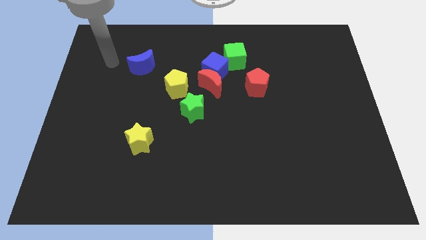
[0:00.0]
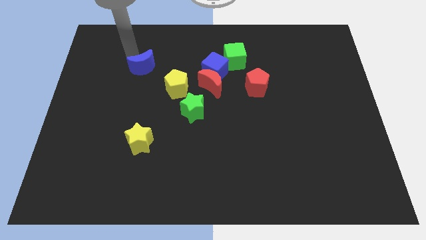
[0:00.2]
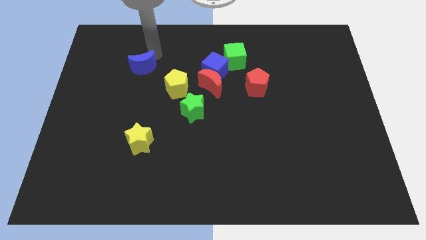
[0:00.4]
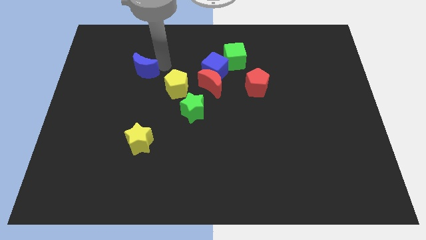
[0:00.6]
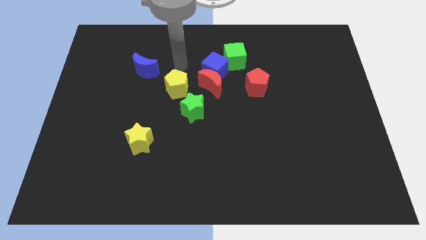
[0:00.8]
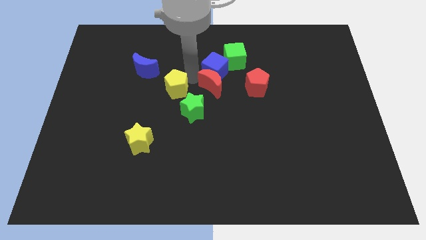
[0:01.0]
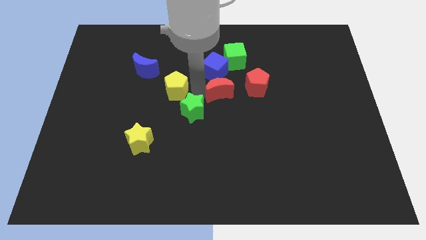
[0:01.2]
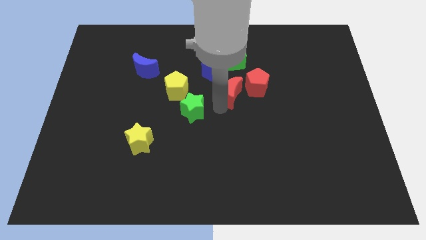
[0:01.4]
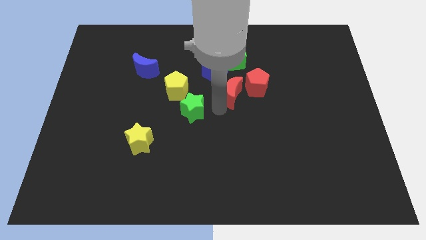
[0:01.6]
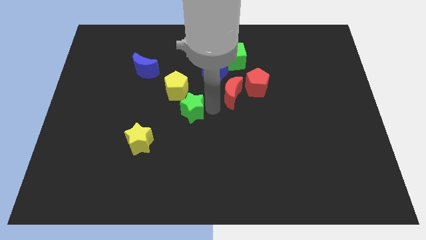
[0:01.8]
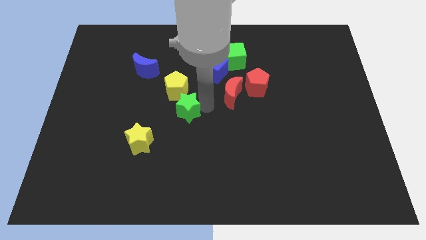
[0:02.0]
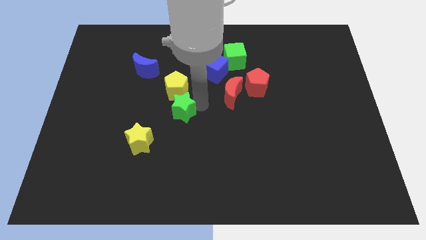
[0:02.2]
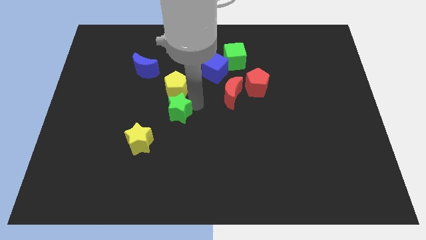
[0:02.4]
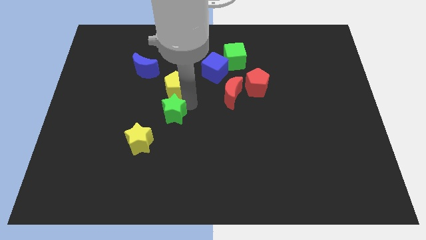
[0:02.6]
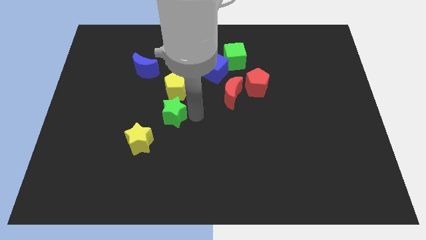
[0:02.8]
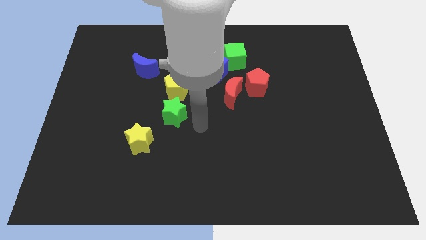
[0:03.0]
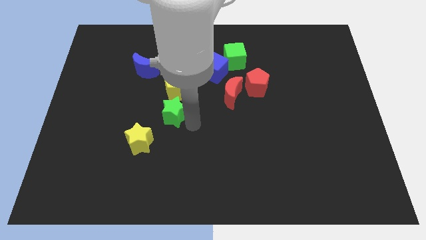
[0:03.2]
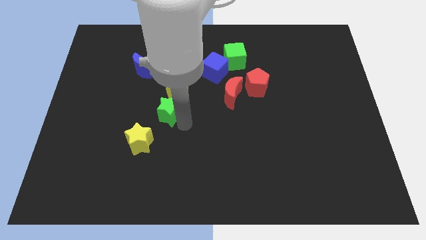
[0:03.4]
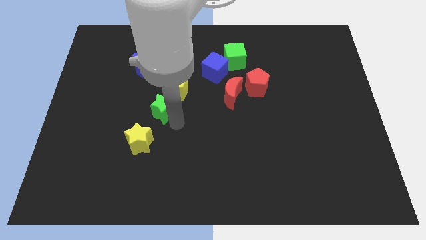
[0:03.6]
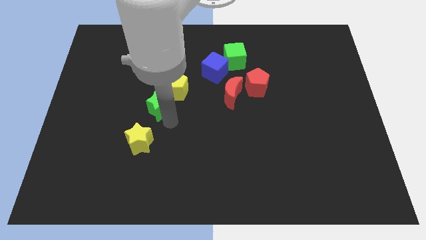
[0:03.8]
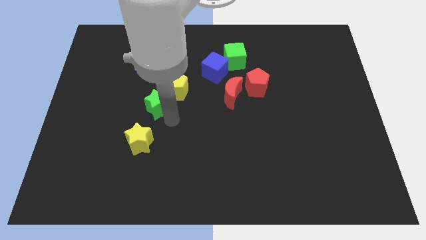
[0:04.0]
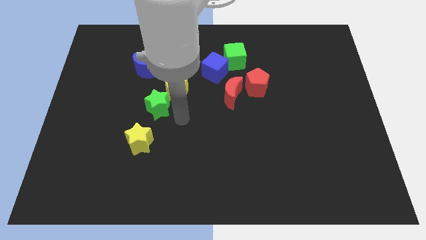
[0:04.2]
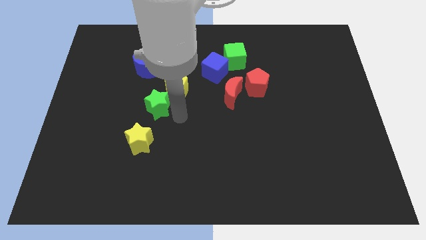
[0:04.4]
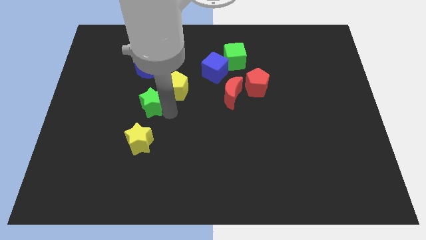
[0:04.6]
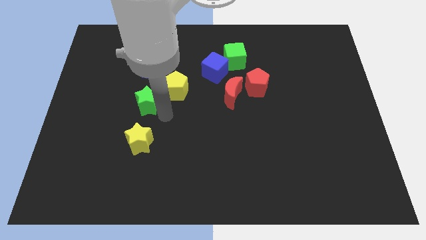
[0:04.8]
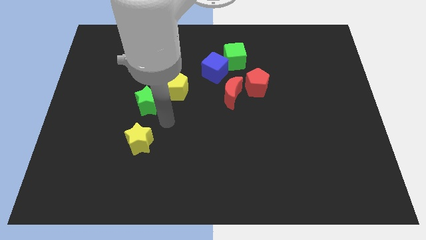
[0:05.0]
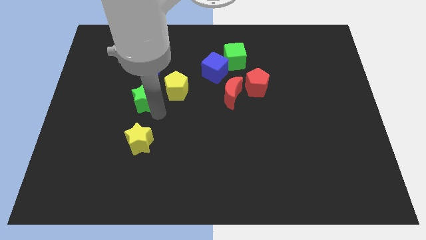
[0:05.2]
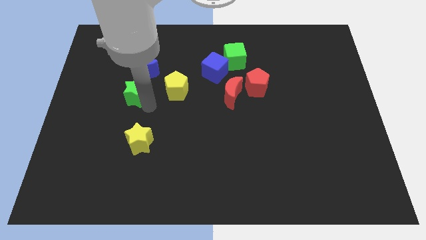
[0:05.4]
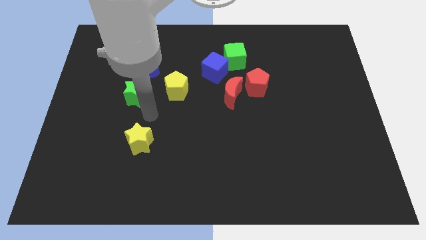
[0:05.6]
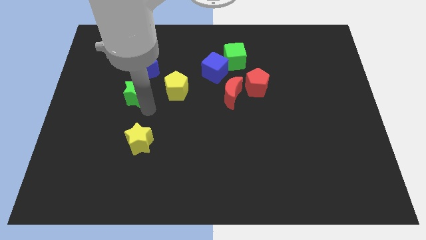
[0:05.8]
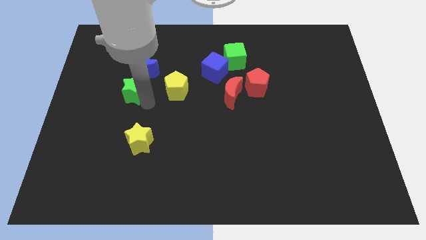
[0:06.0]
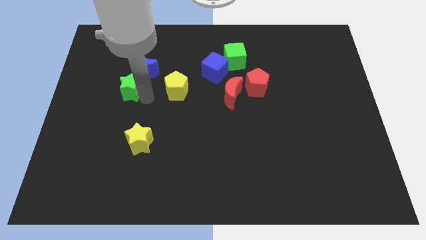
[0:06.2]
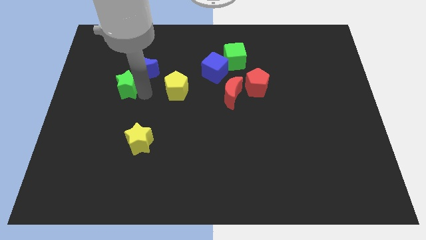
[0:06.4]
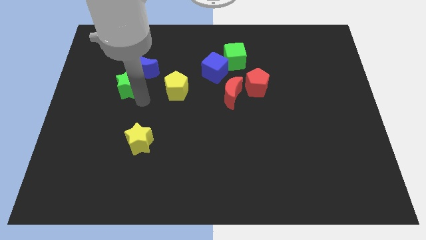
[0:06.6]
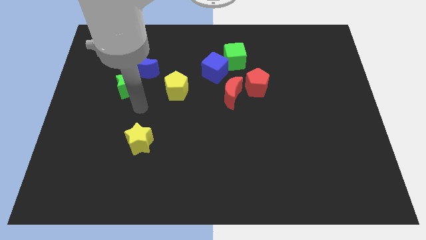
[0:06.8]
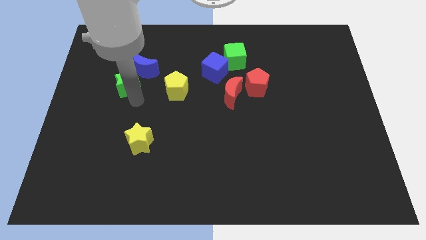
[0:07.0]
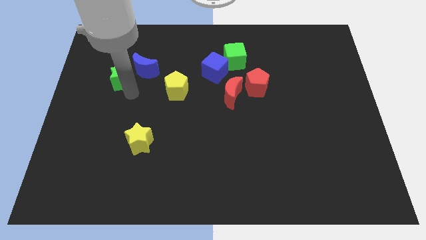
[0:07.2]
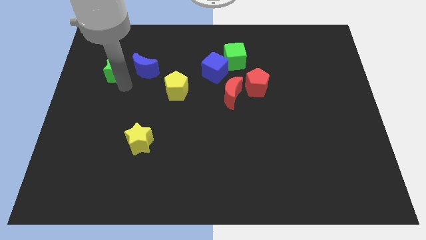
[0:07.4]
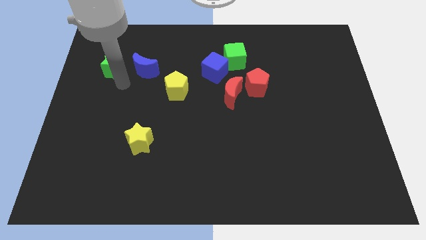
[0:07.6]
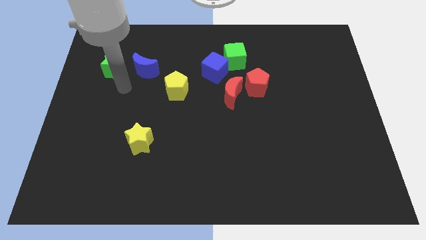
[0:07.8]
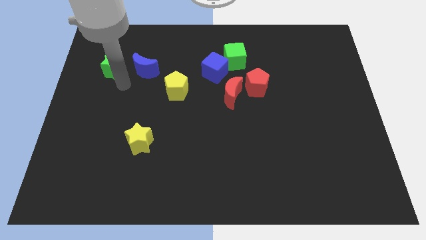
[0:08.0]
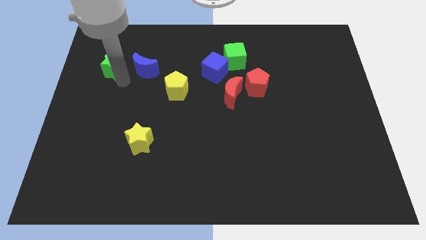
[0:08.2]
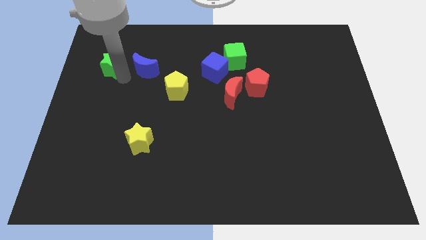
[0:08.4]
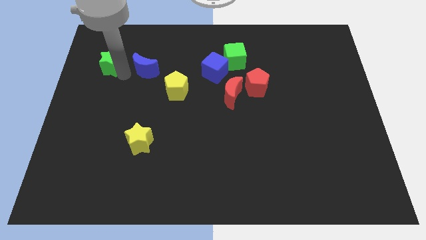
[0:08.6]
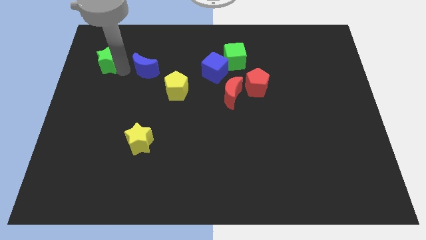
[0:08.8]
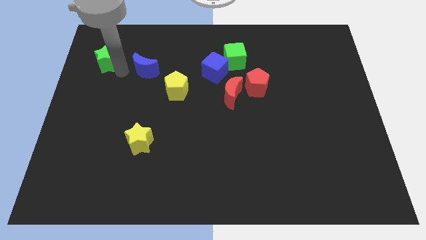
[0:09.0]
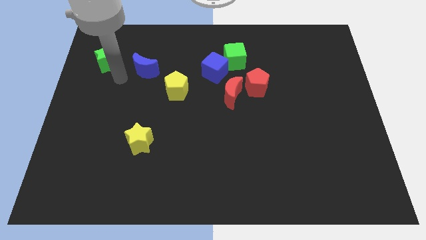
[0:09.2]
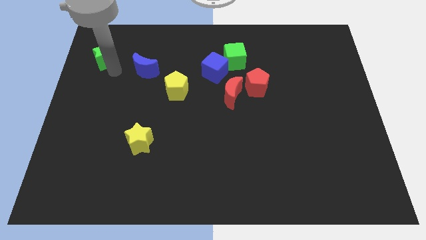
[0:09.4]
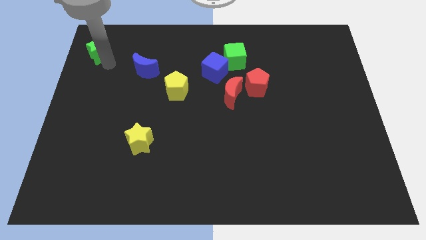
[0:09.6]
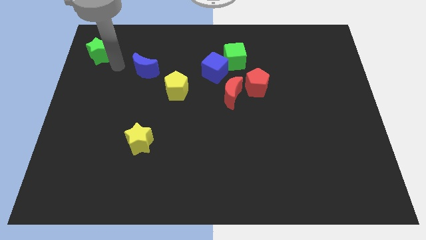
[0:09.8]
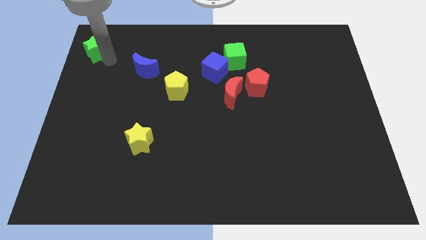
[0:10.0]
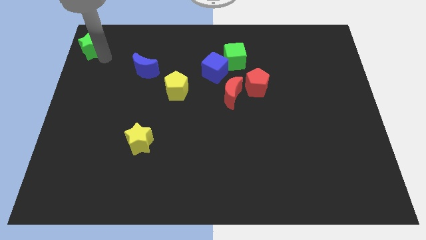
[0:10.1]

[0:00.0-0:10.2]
push the green star to the upper left corner

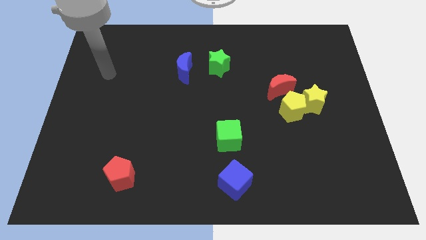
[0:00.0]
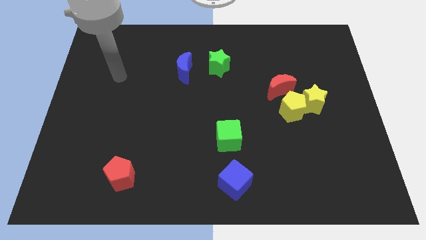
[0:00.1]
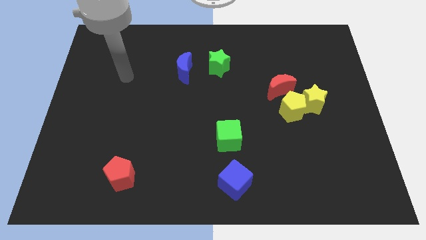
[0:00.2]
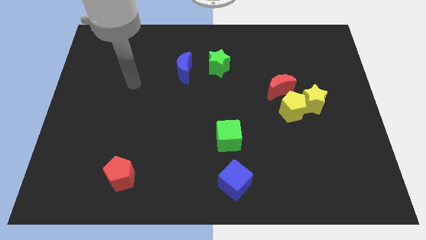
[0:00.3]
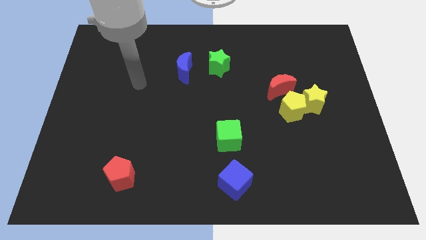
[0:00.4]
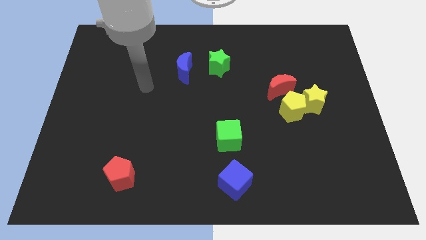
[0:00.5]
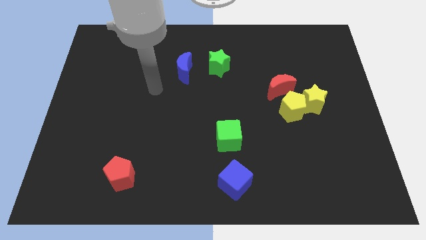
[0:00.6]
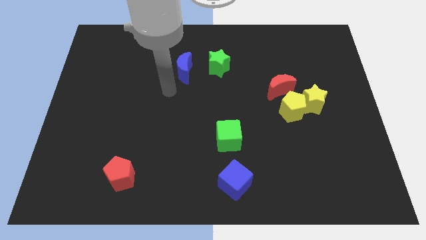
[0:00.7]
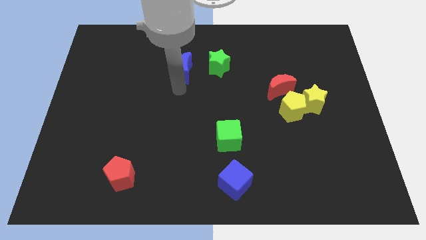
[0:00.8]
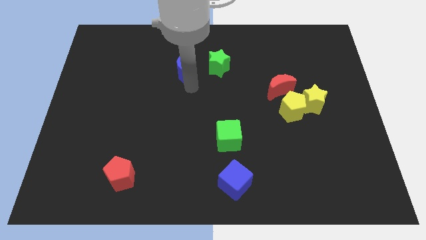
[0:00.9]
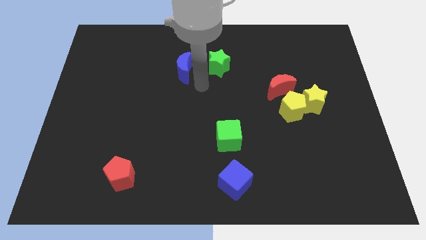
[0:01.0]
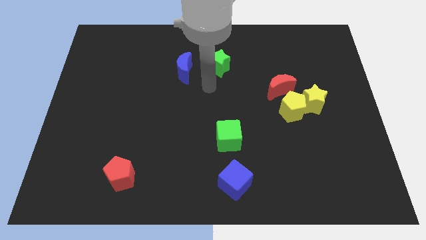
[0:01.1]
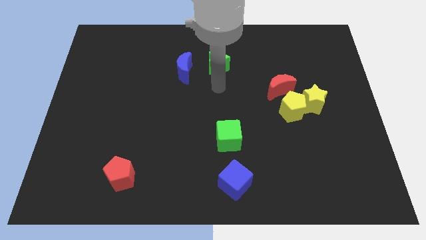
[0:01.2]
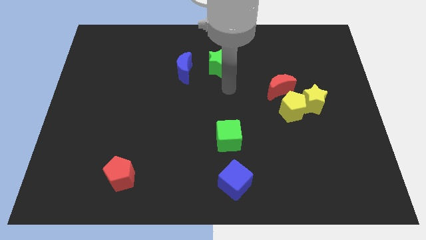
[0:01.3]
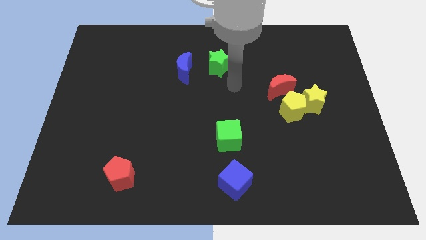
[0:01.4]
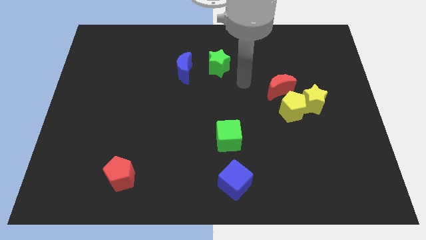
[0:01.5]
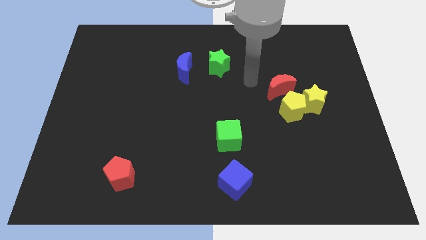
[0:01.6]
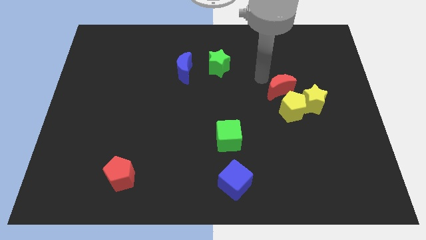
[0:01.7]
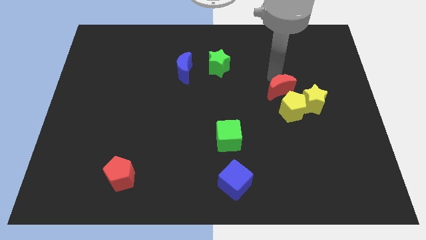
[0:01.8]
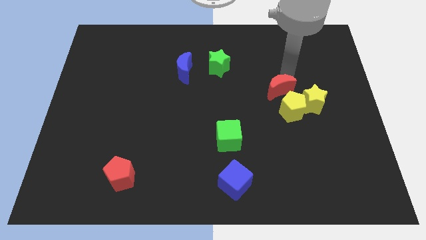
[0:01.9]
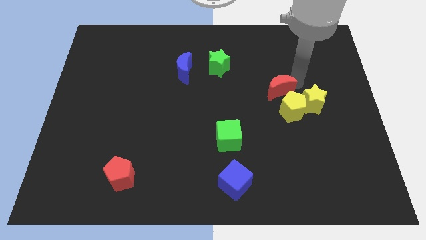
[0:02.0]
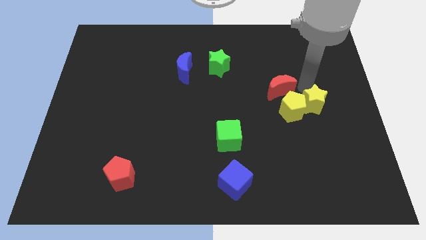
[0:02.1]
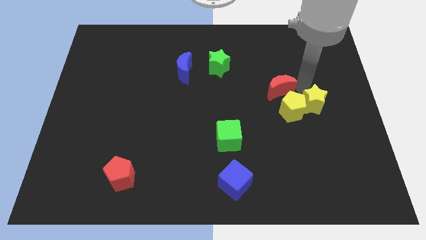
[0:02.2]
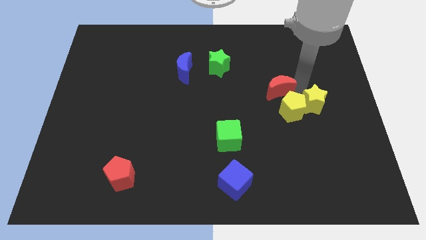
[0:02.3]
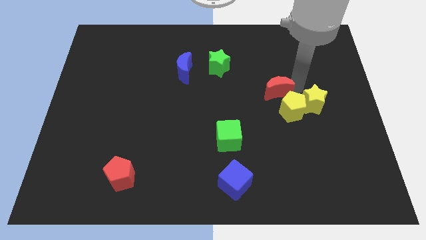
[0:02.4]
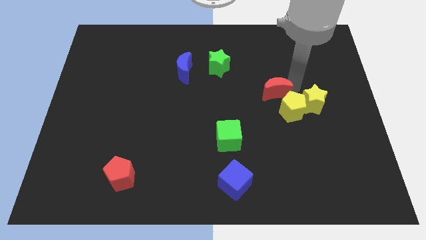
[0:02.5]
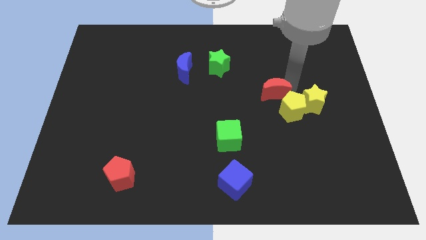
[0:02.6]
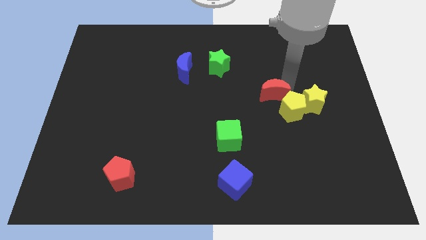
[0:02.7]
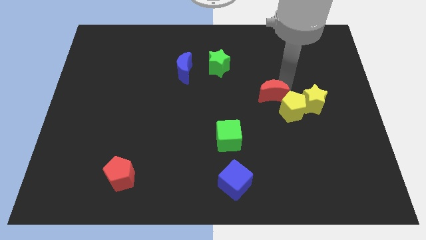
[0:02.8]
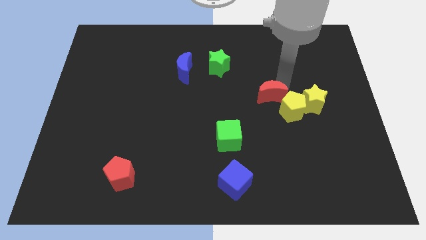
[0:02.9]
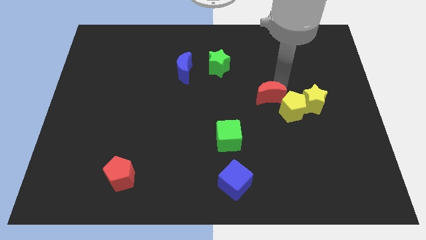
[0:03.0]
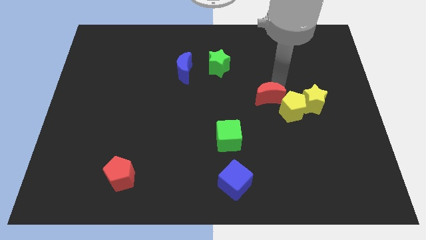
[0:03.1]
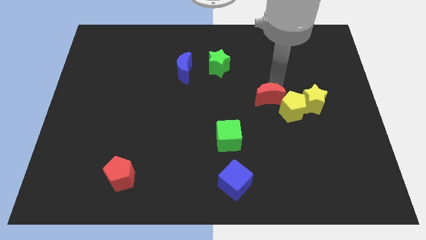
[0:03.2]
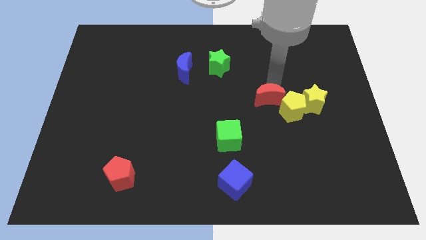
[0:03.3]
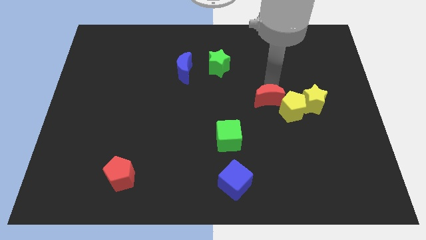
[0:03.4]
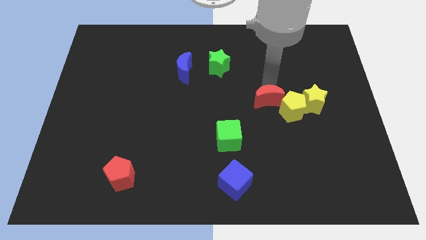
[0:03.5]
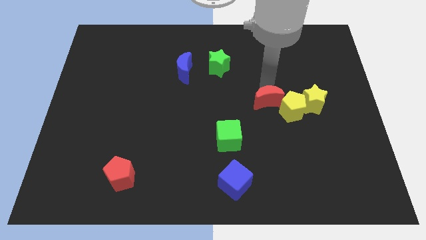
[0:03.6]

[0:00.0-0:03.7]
slide the red moon to the center
